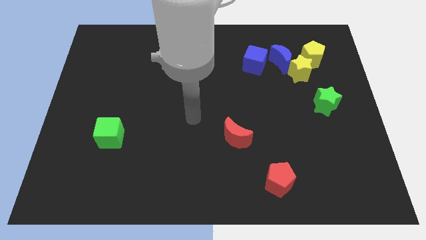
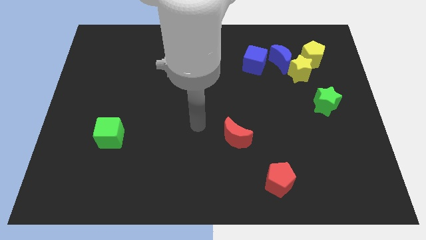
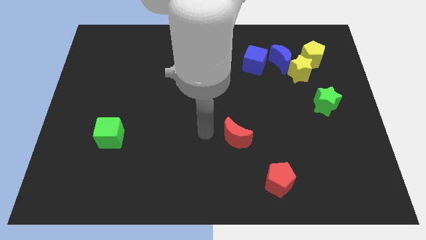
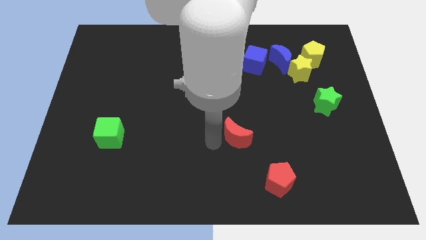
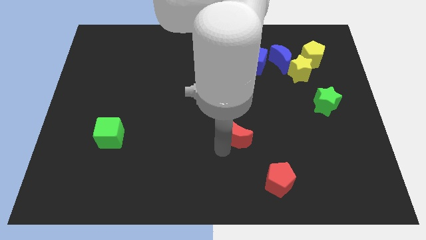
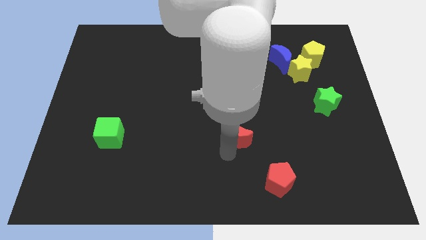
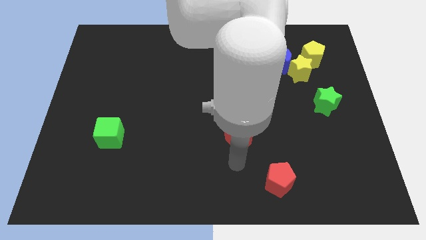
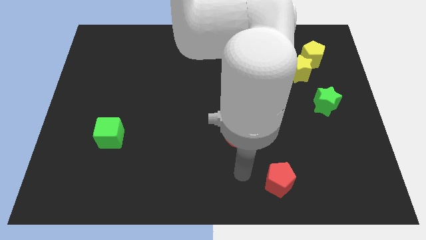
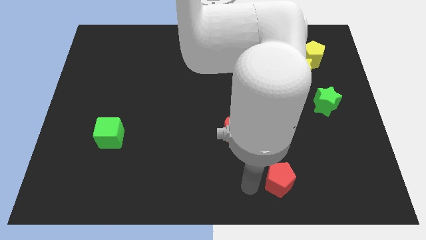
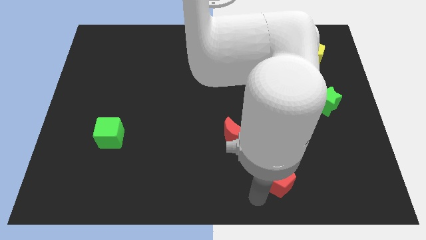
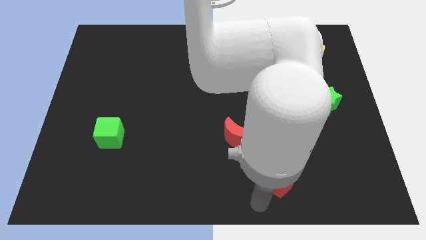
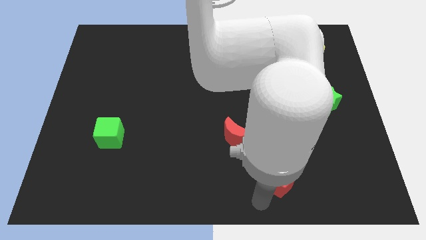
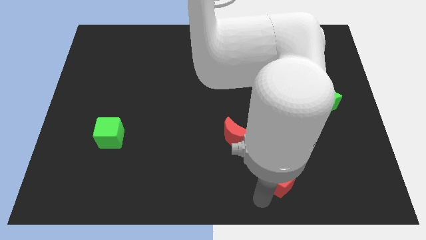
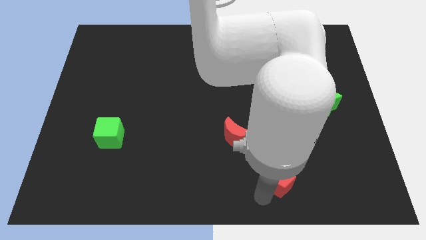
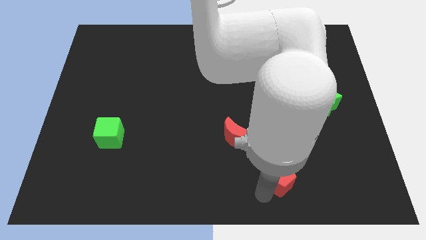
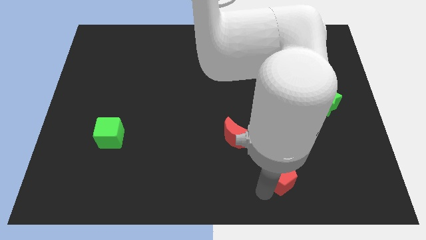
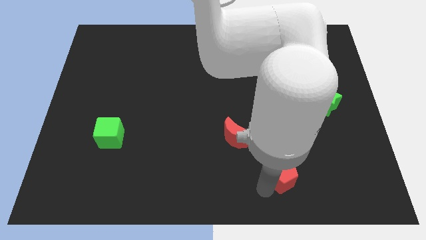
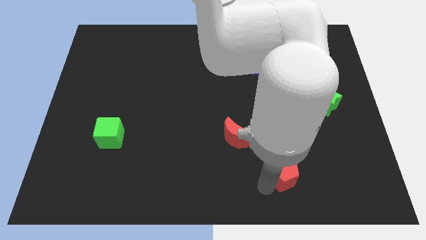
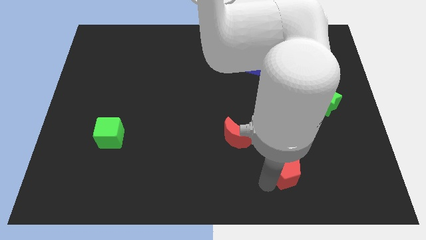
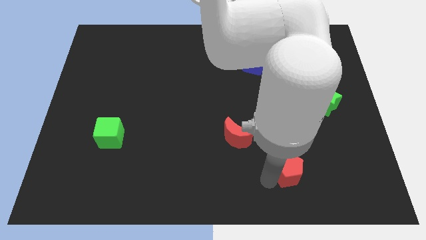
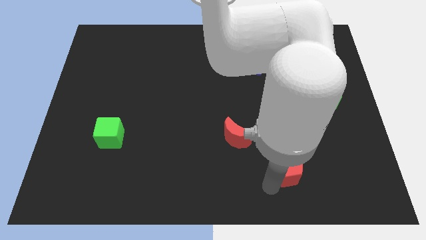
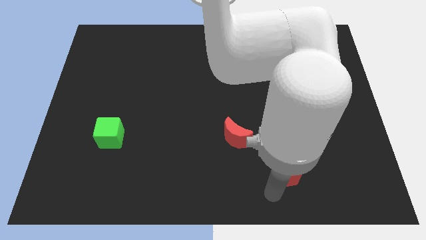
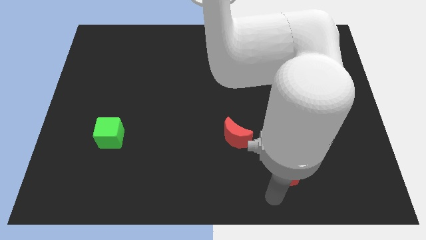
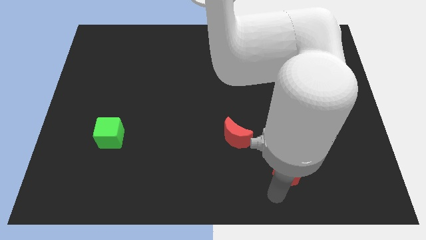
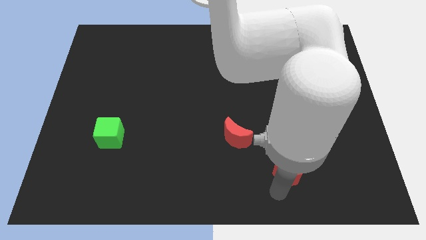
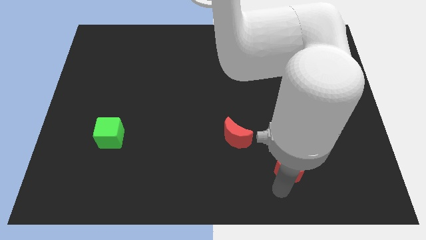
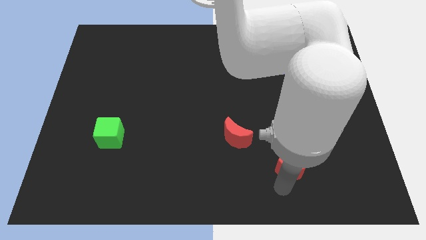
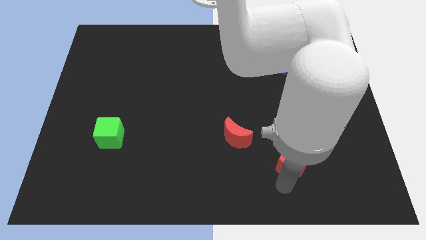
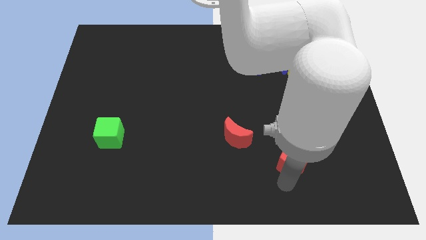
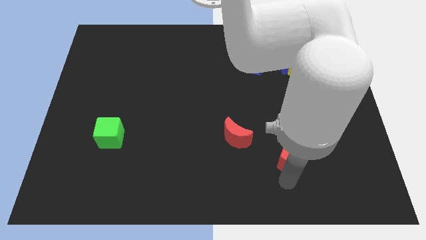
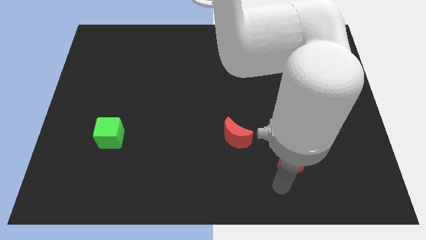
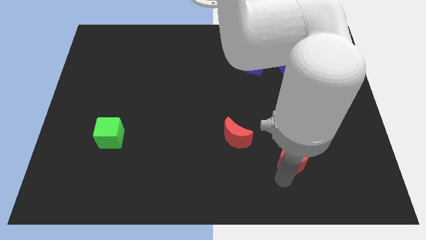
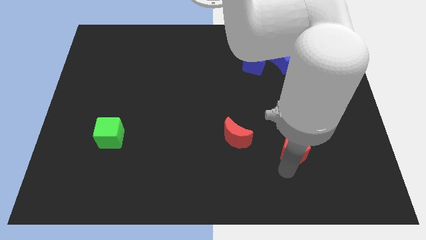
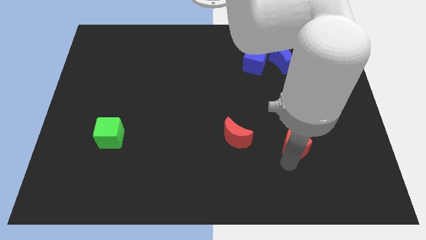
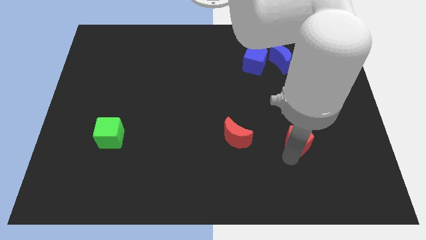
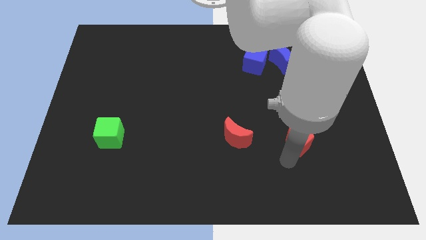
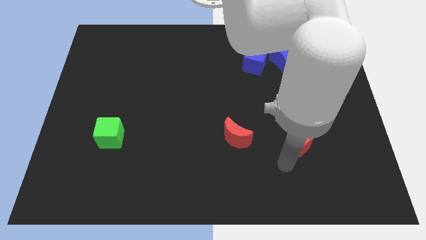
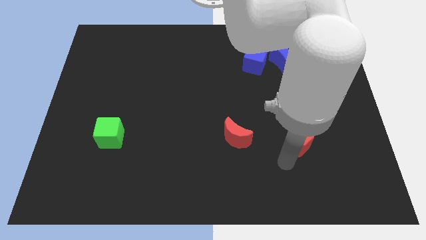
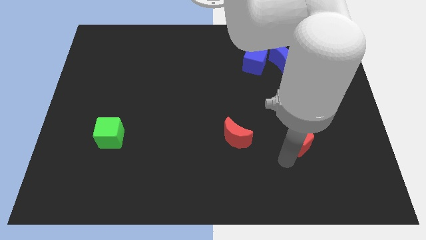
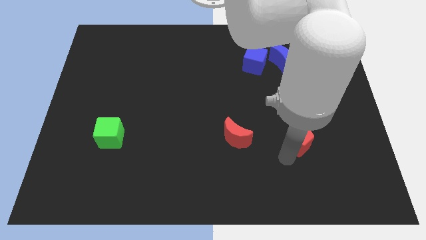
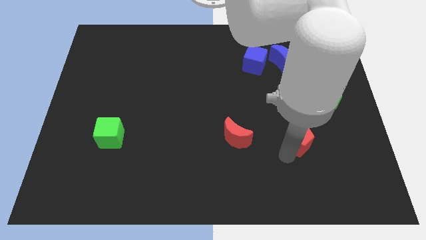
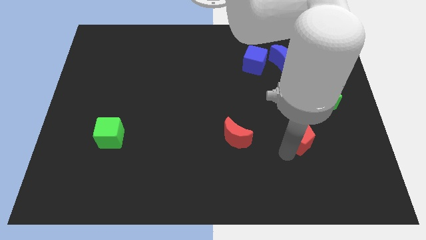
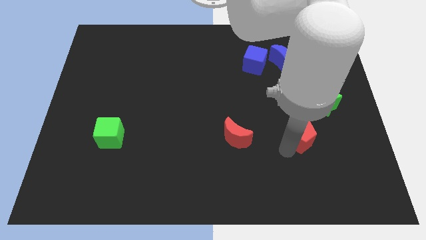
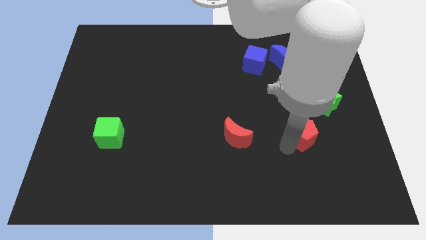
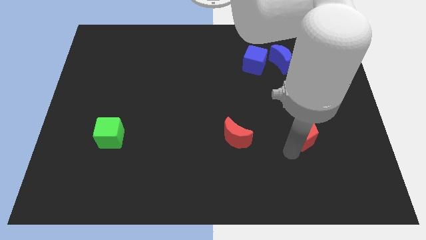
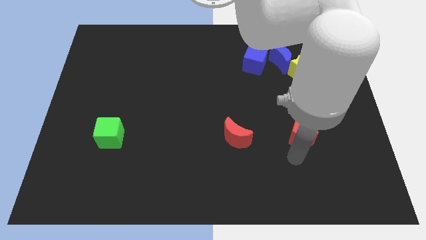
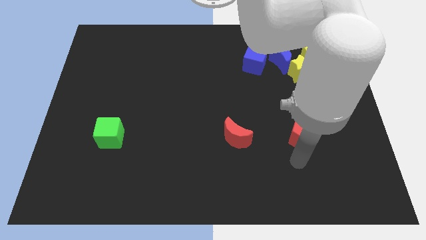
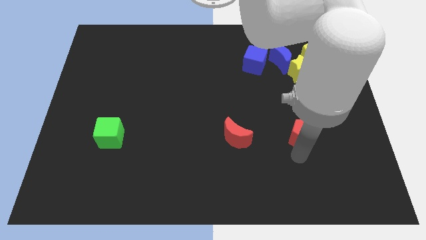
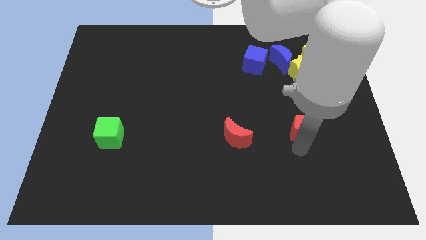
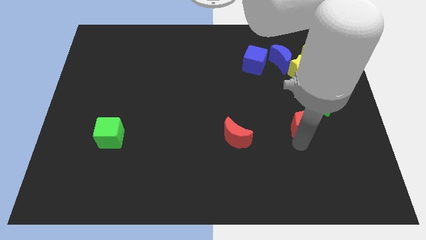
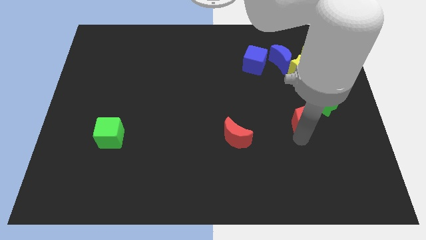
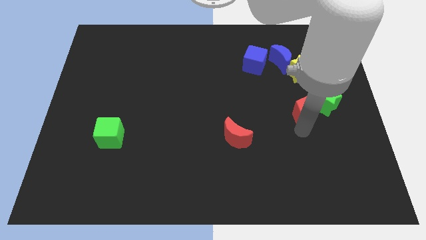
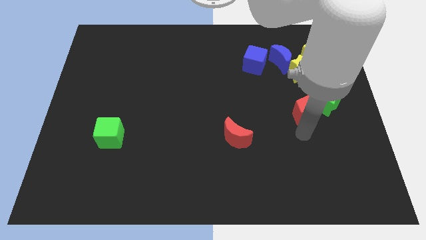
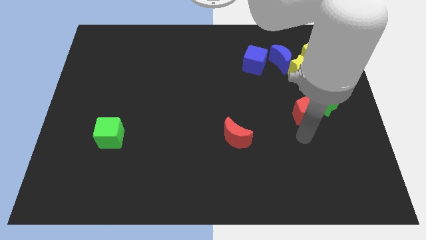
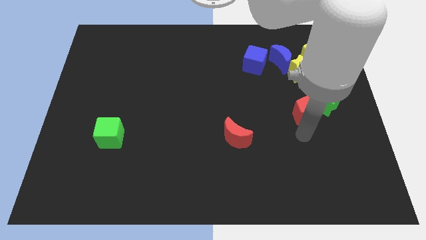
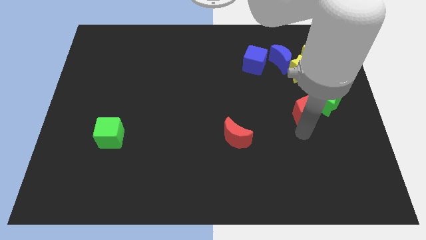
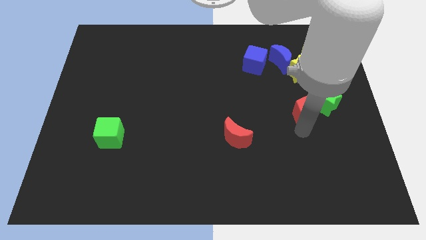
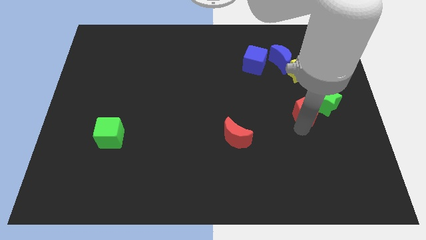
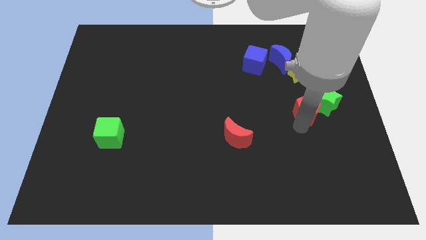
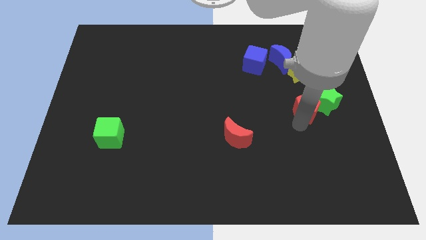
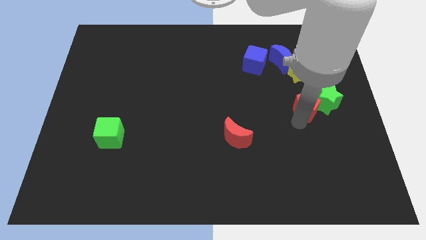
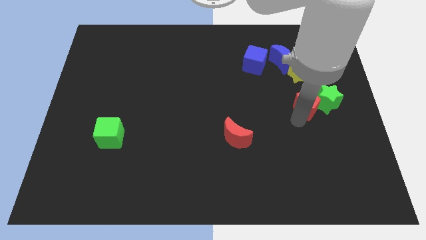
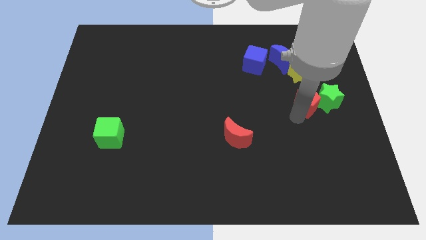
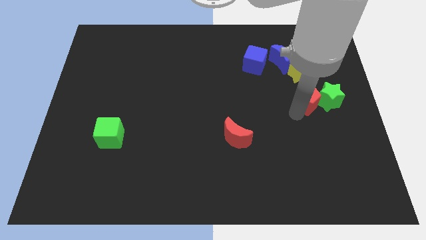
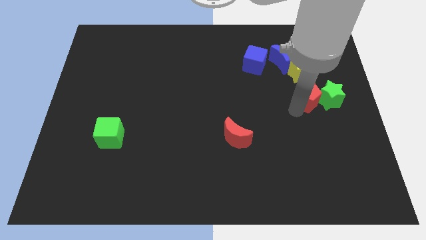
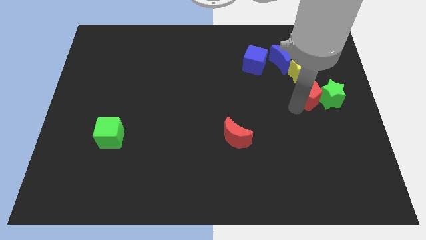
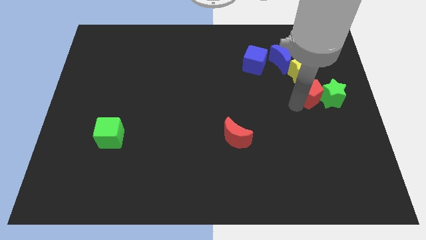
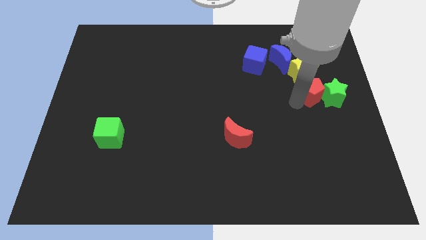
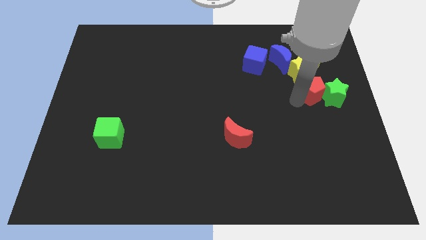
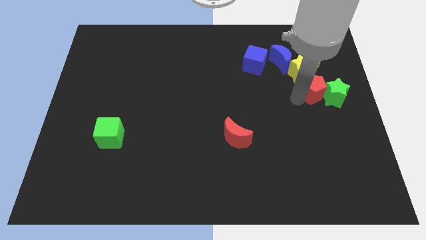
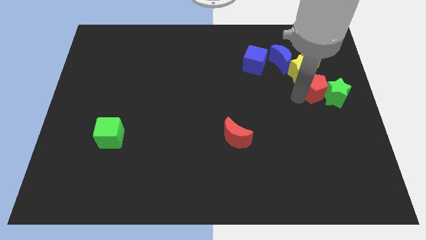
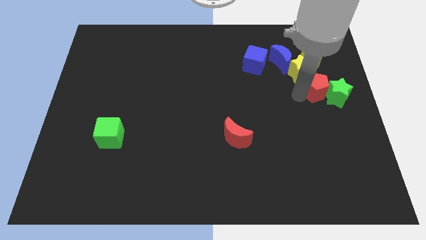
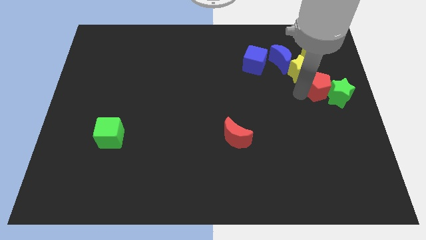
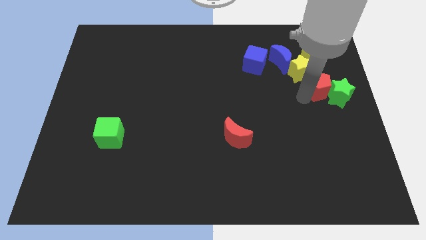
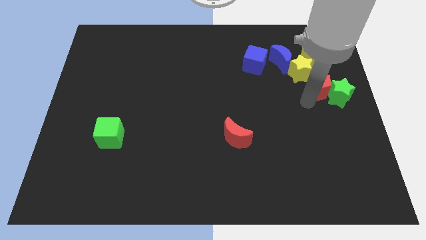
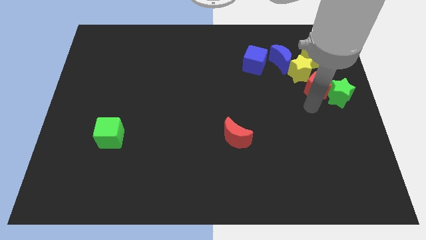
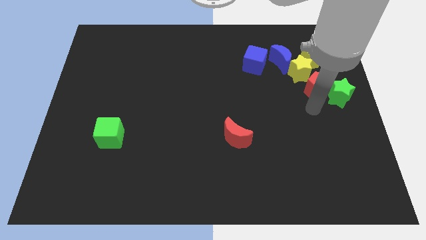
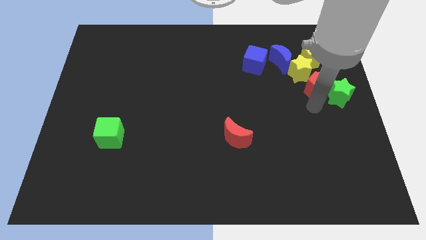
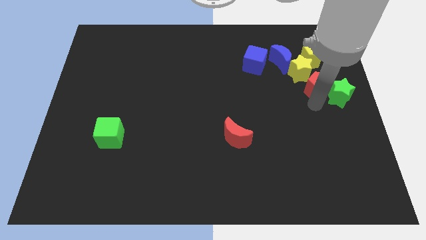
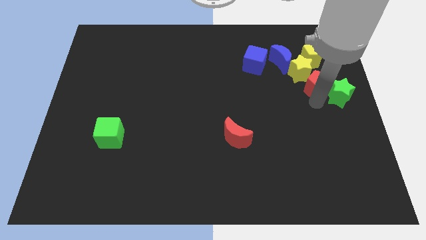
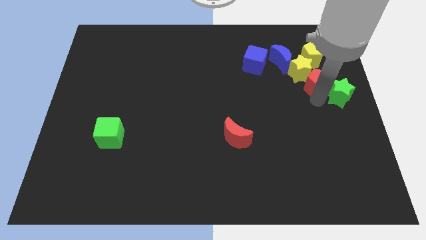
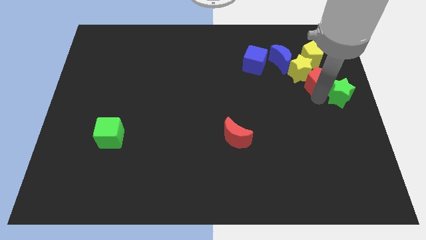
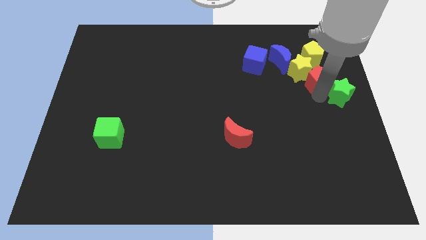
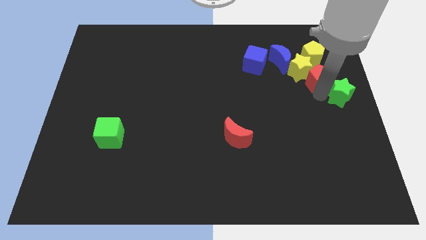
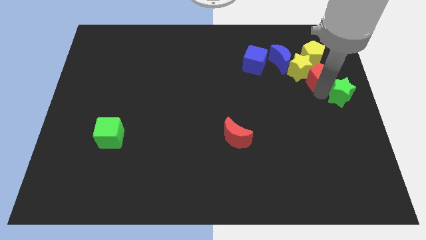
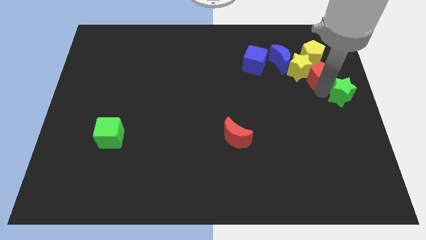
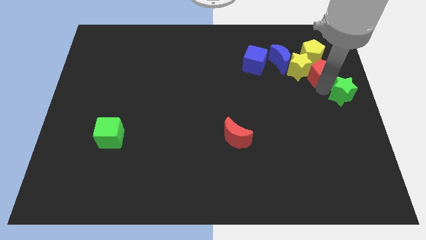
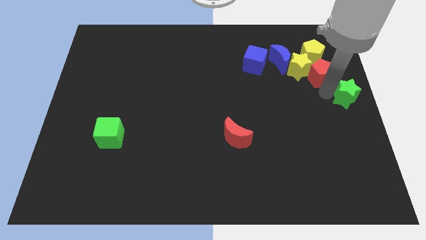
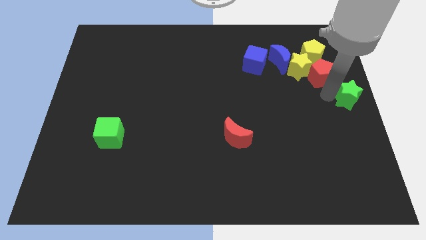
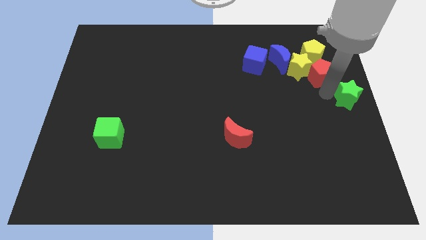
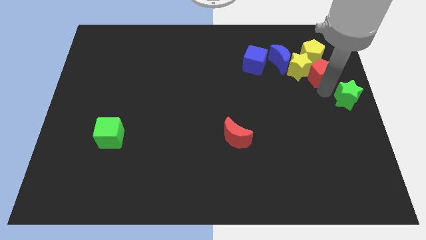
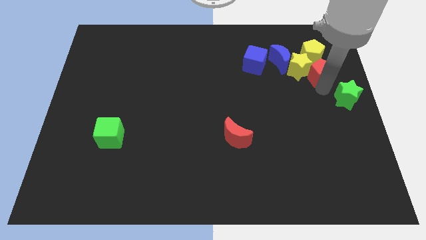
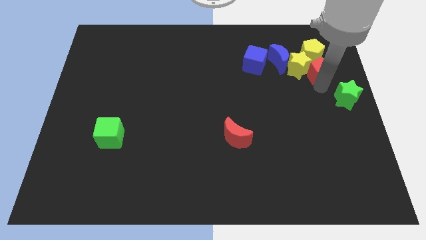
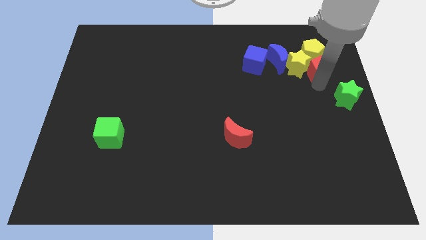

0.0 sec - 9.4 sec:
move the red pentagon close to the yellow pentagon
